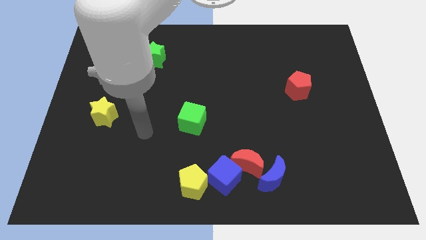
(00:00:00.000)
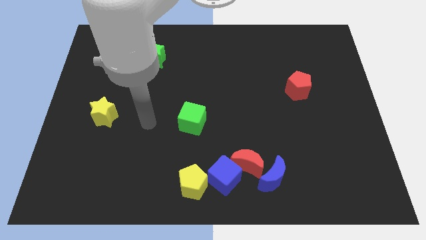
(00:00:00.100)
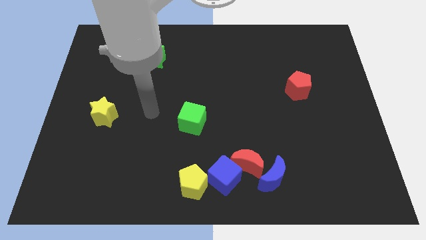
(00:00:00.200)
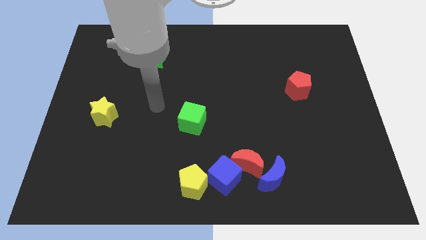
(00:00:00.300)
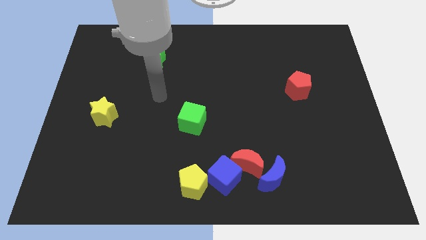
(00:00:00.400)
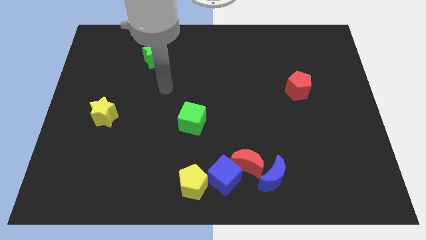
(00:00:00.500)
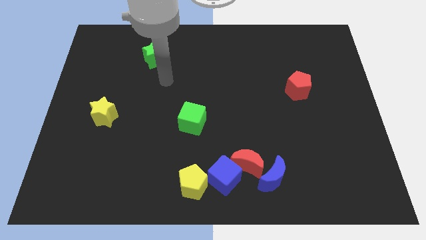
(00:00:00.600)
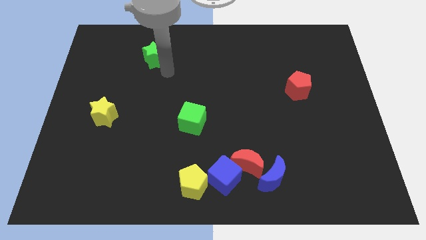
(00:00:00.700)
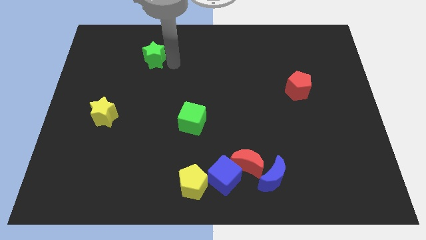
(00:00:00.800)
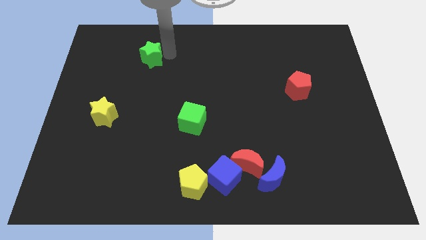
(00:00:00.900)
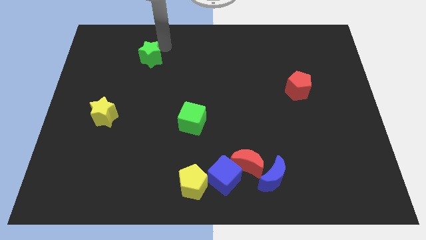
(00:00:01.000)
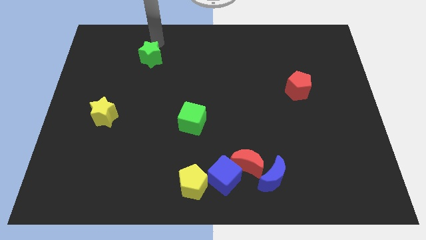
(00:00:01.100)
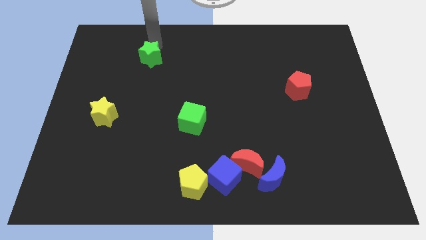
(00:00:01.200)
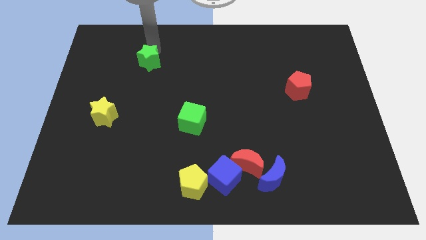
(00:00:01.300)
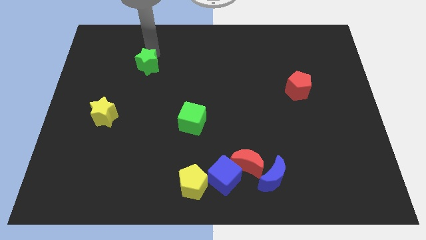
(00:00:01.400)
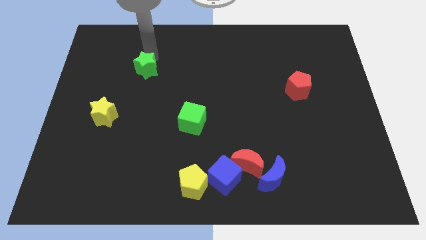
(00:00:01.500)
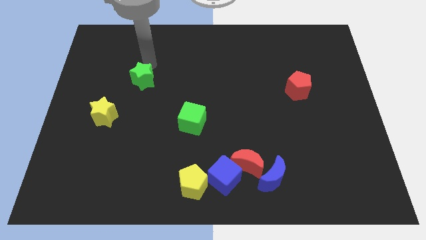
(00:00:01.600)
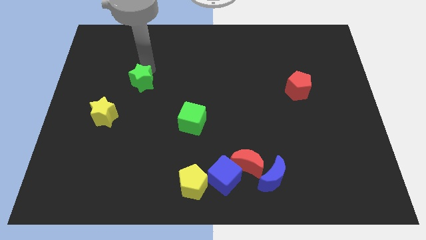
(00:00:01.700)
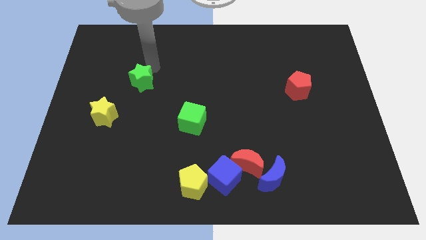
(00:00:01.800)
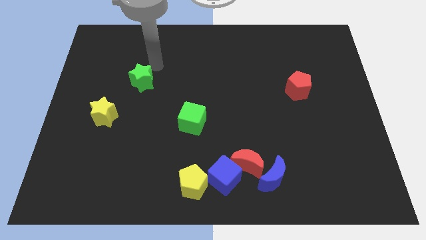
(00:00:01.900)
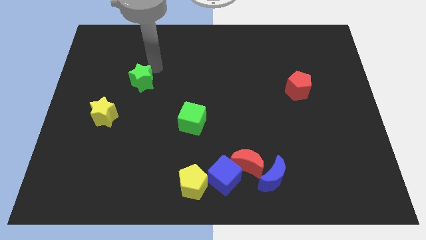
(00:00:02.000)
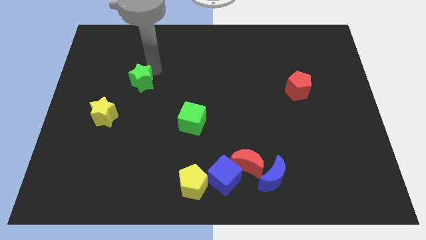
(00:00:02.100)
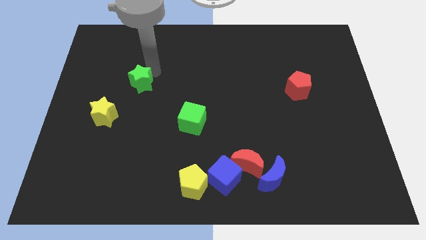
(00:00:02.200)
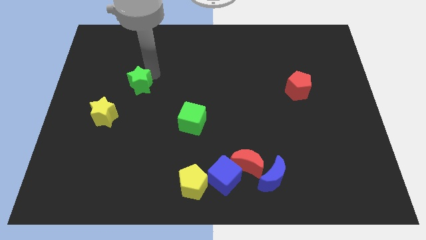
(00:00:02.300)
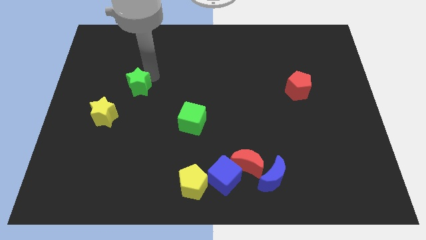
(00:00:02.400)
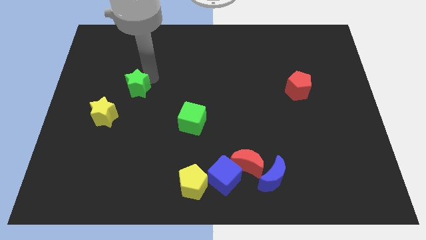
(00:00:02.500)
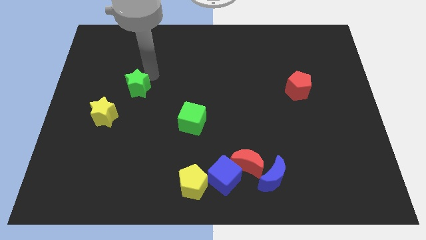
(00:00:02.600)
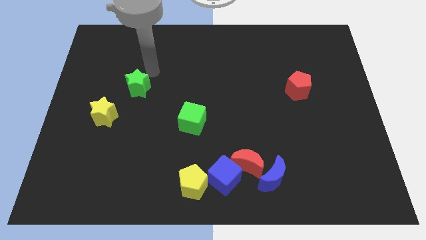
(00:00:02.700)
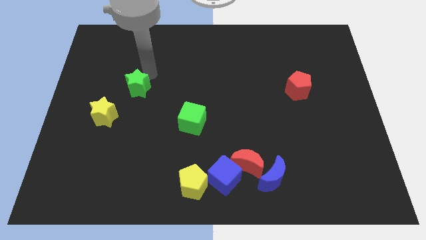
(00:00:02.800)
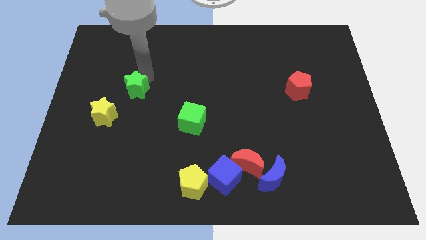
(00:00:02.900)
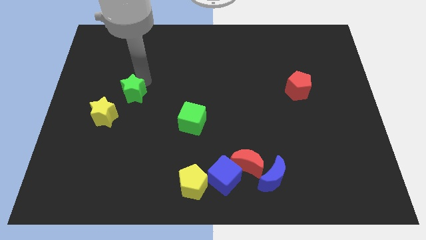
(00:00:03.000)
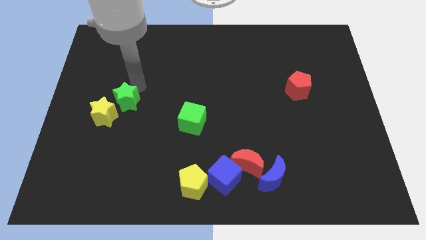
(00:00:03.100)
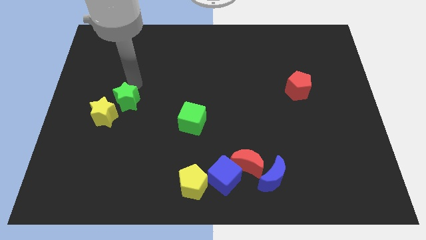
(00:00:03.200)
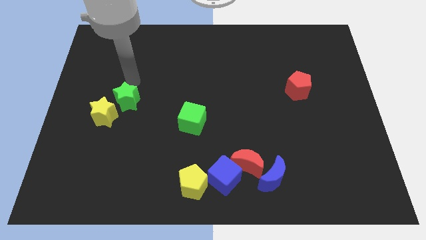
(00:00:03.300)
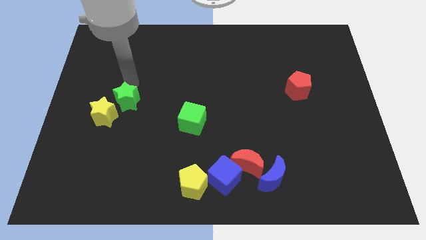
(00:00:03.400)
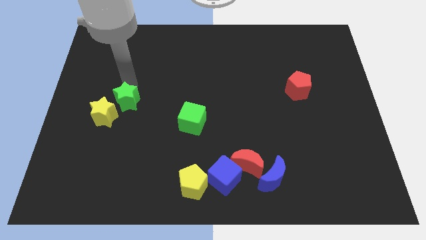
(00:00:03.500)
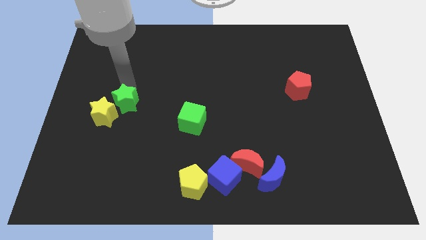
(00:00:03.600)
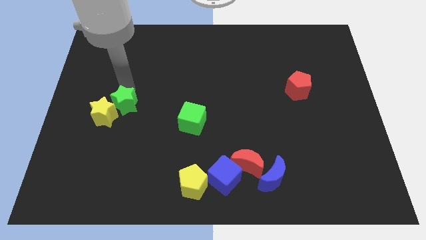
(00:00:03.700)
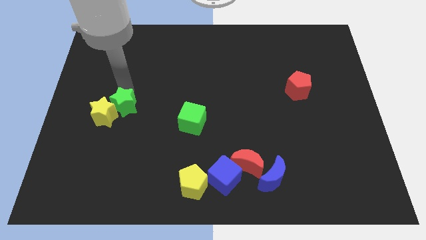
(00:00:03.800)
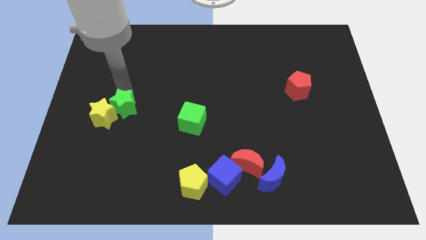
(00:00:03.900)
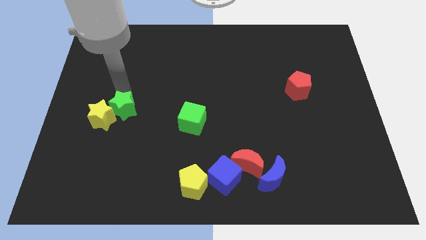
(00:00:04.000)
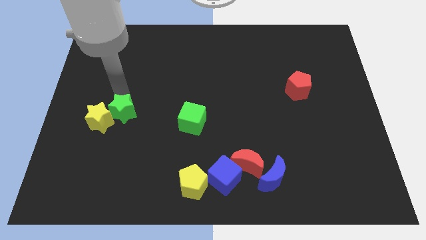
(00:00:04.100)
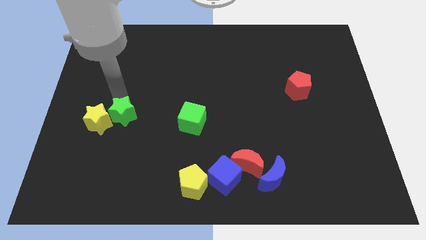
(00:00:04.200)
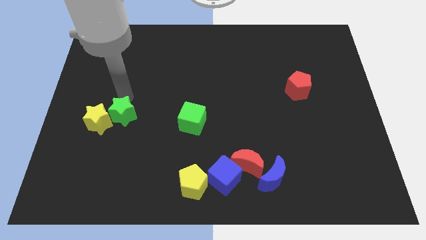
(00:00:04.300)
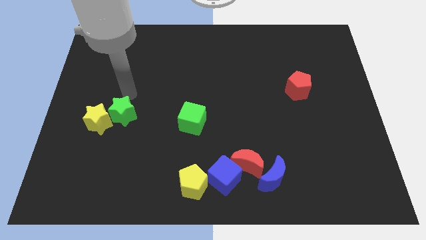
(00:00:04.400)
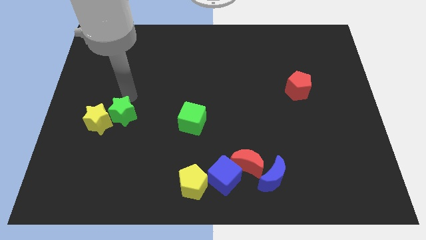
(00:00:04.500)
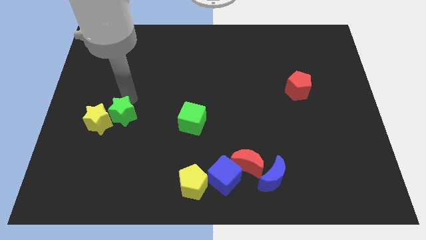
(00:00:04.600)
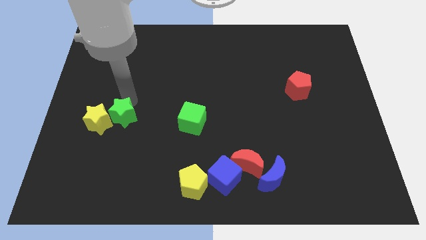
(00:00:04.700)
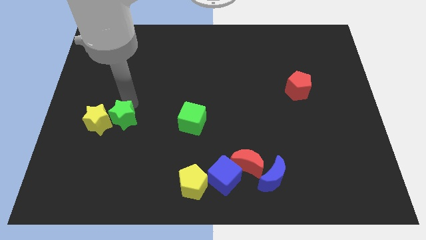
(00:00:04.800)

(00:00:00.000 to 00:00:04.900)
slide the green star to the bottom right of the yellow star

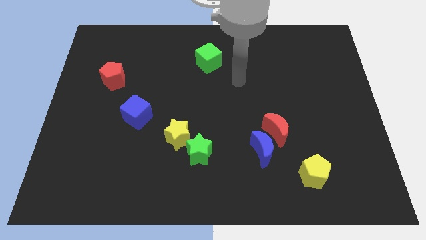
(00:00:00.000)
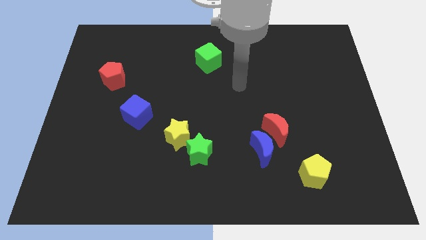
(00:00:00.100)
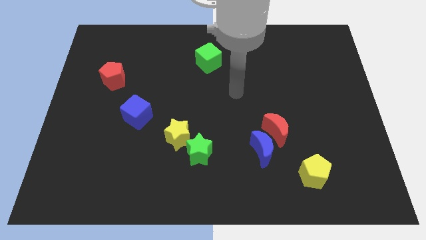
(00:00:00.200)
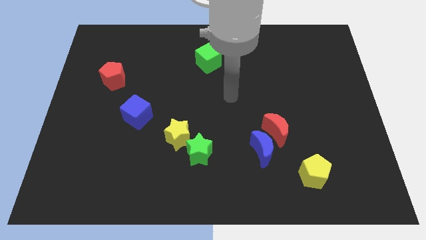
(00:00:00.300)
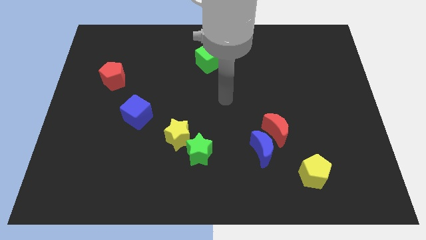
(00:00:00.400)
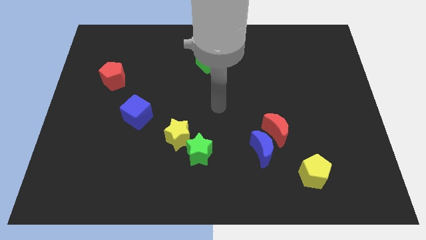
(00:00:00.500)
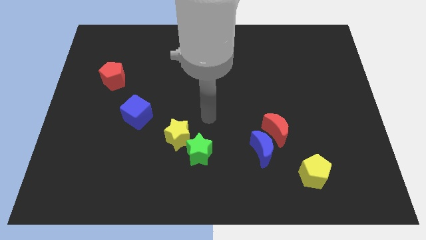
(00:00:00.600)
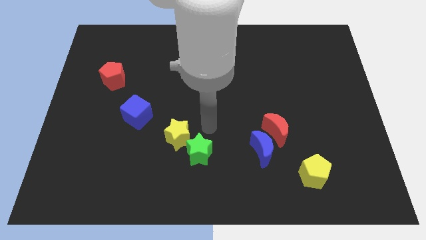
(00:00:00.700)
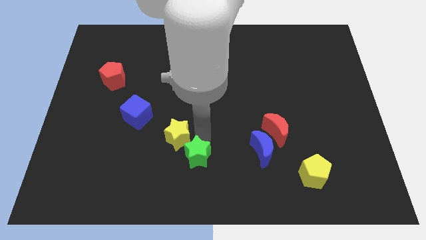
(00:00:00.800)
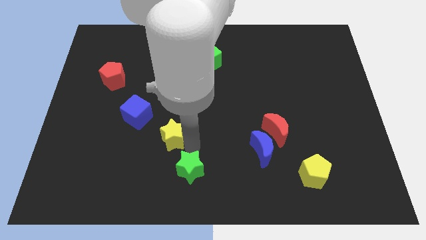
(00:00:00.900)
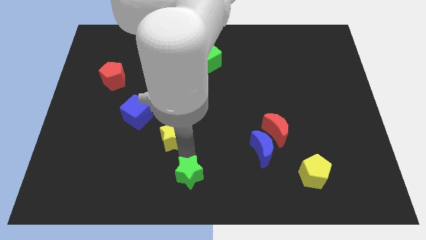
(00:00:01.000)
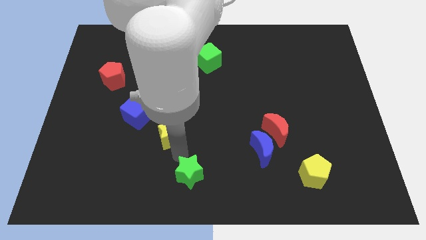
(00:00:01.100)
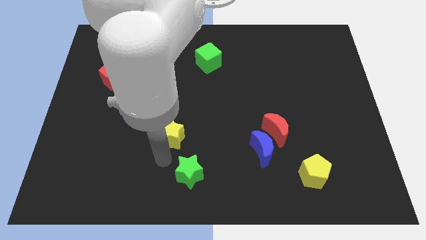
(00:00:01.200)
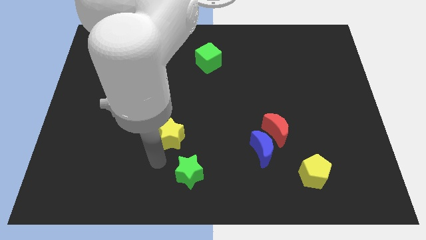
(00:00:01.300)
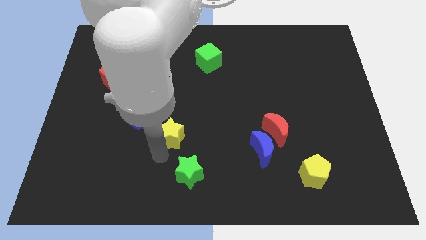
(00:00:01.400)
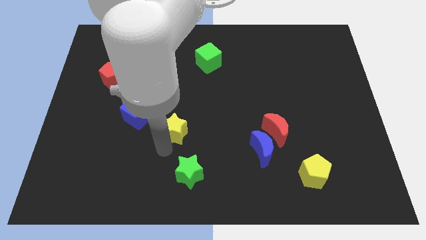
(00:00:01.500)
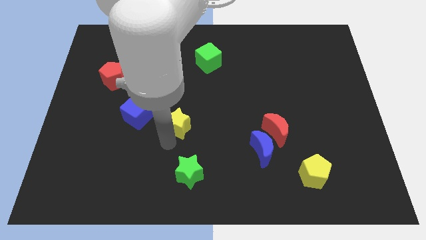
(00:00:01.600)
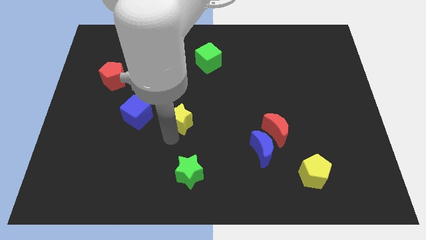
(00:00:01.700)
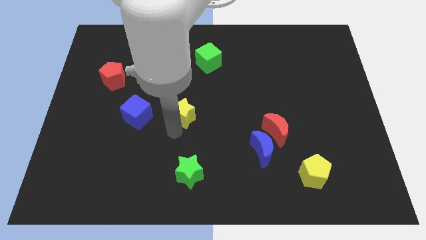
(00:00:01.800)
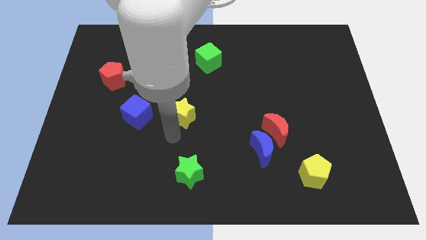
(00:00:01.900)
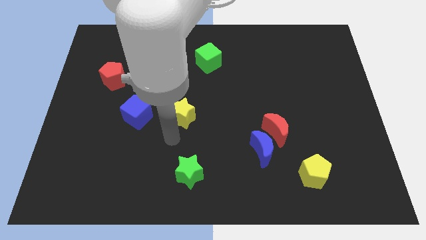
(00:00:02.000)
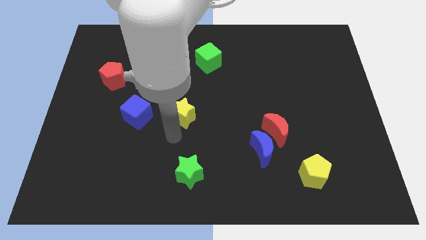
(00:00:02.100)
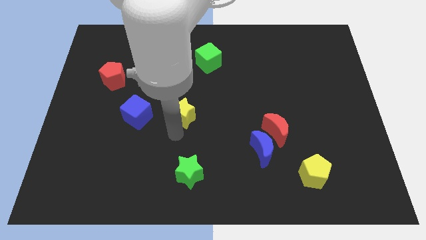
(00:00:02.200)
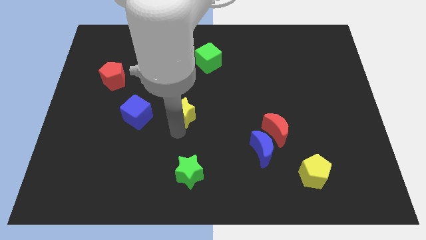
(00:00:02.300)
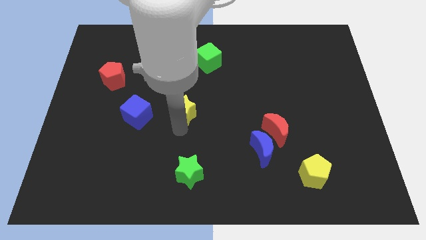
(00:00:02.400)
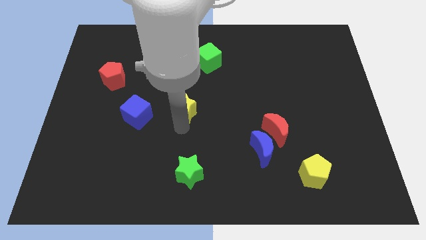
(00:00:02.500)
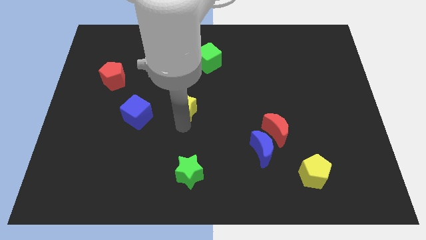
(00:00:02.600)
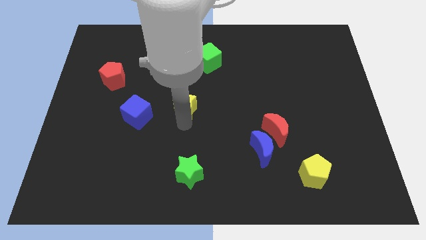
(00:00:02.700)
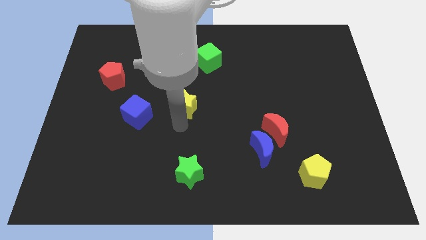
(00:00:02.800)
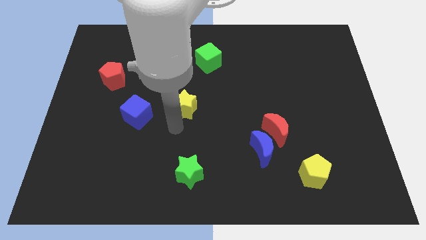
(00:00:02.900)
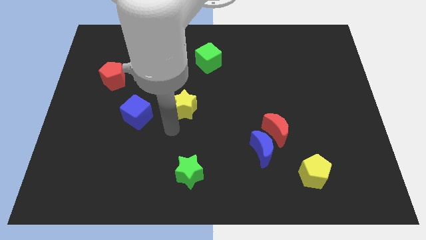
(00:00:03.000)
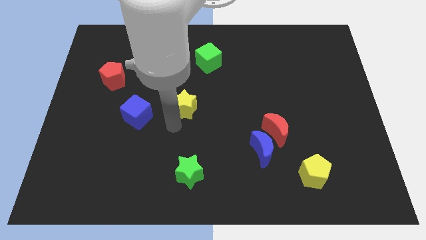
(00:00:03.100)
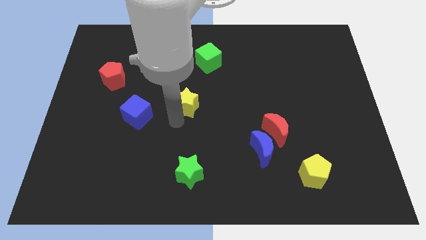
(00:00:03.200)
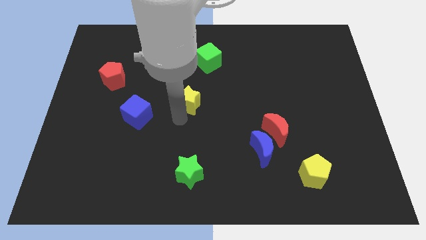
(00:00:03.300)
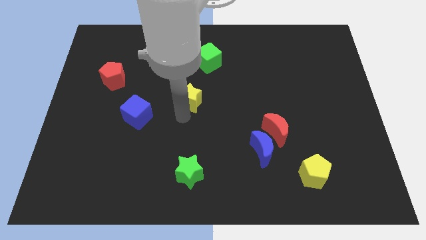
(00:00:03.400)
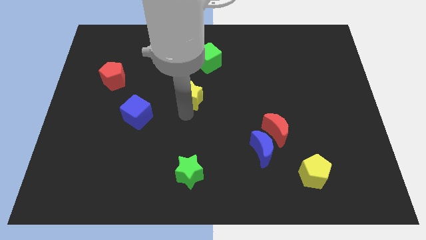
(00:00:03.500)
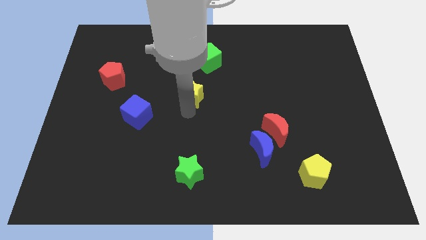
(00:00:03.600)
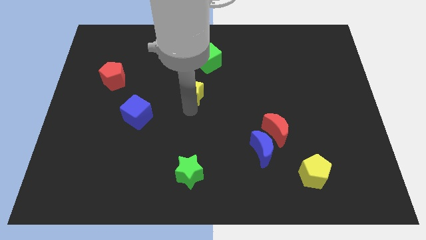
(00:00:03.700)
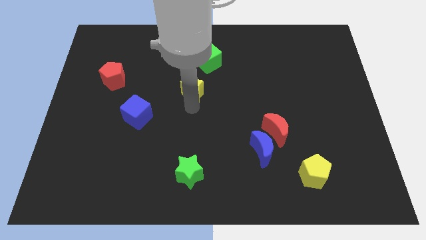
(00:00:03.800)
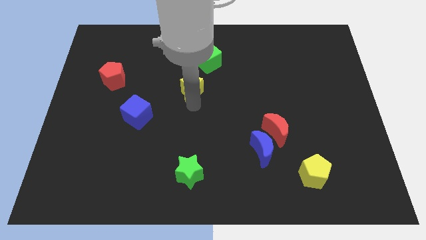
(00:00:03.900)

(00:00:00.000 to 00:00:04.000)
put the yellow star to the bottom left side of the green cube
